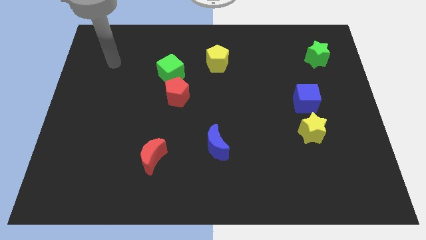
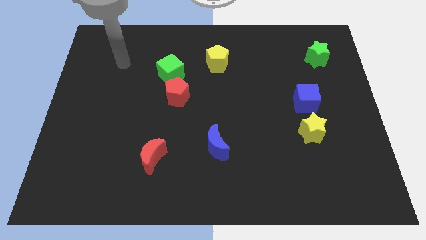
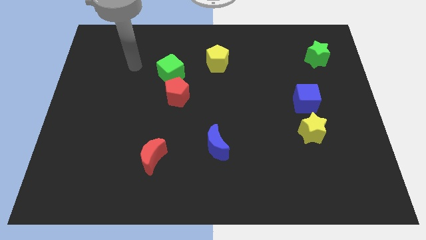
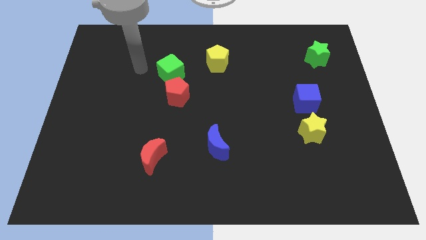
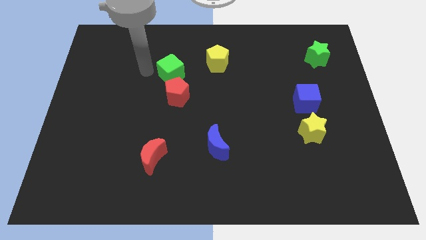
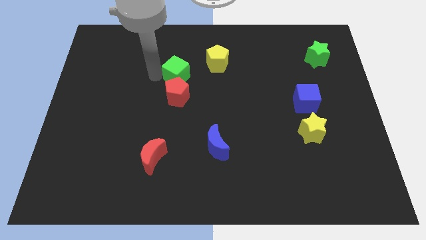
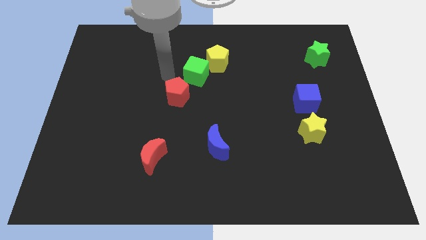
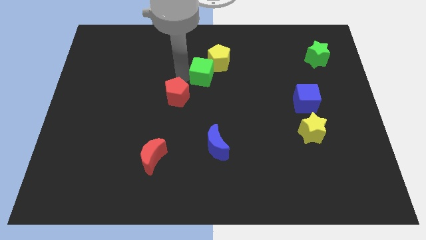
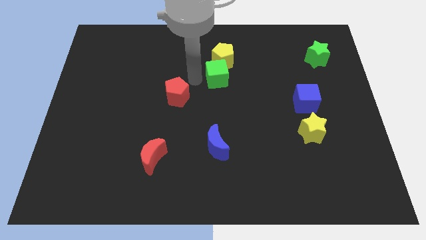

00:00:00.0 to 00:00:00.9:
move the red pentagon away from the green cube

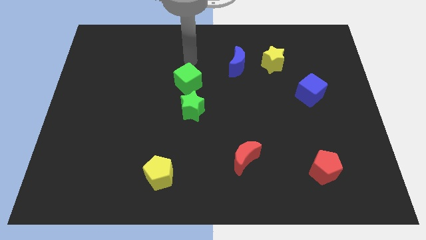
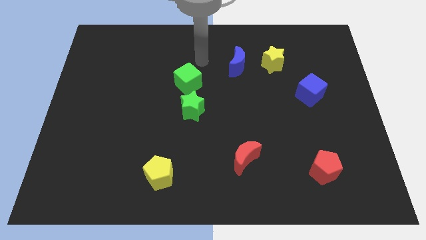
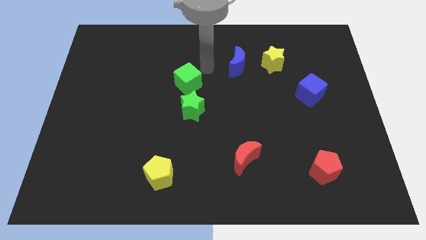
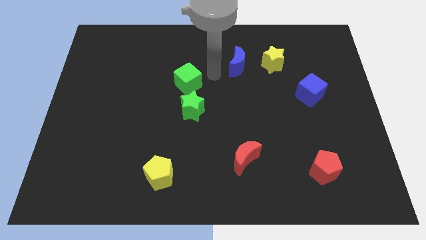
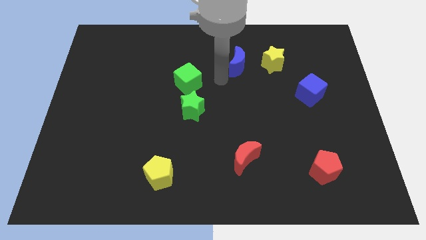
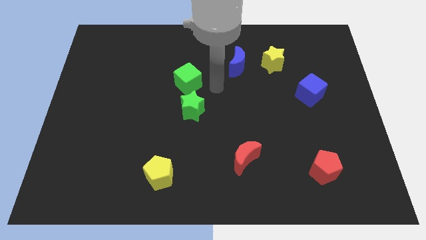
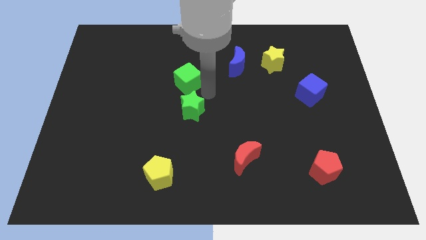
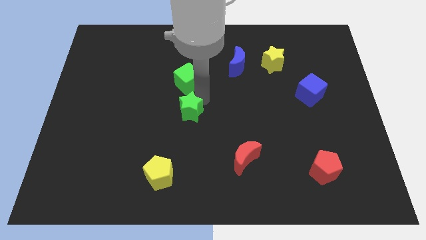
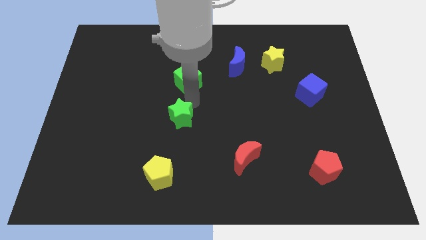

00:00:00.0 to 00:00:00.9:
separate the green cube from the green star

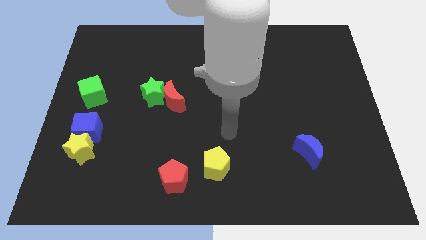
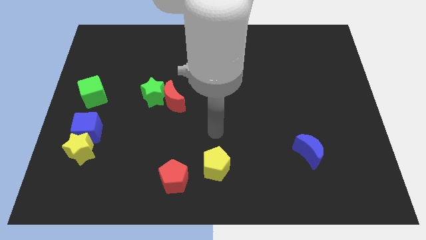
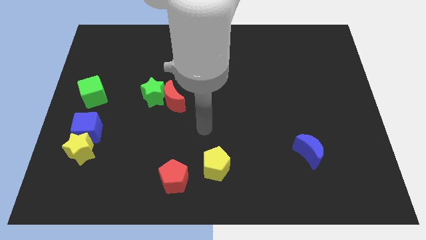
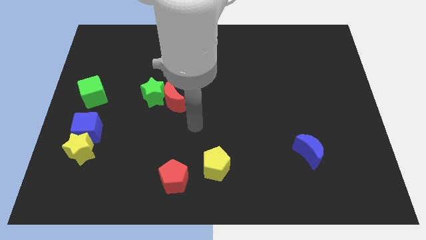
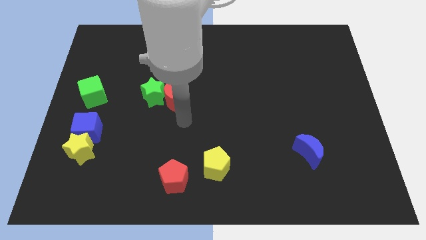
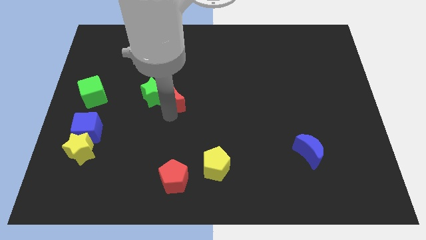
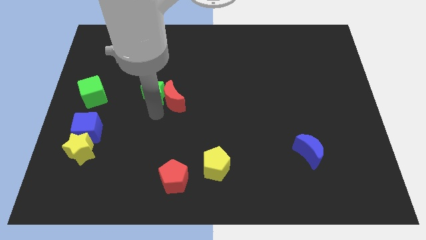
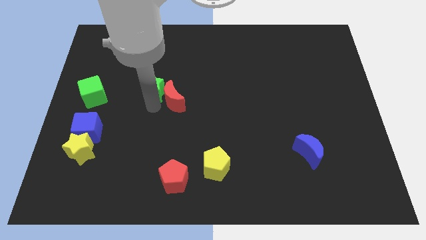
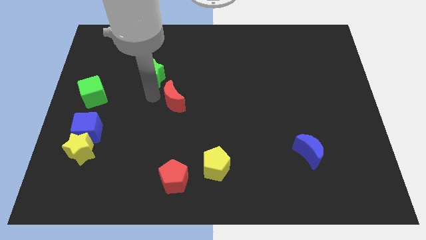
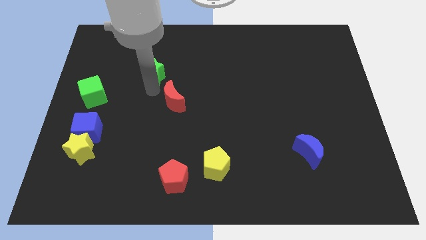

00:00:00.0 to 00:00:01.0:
separate the red moon from the green star

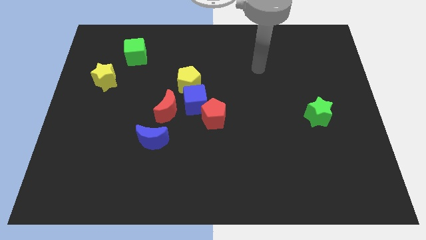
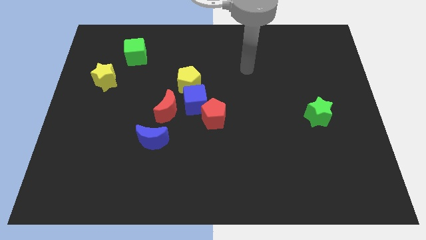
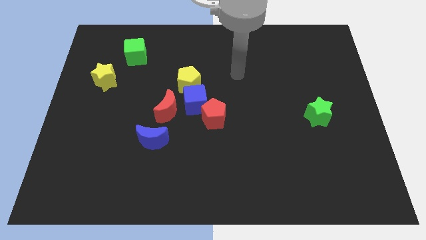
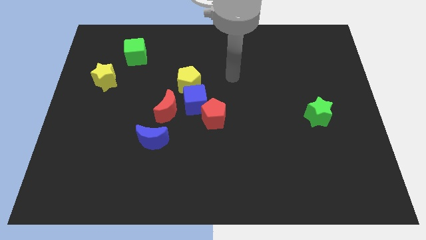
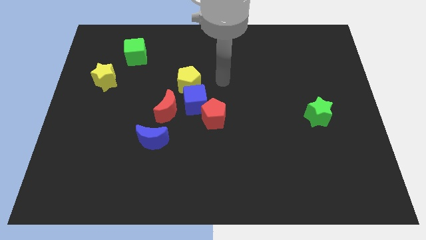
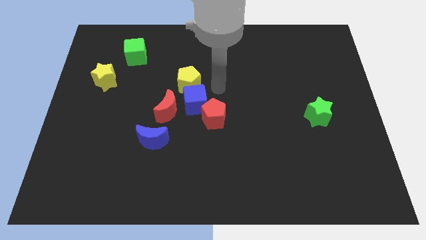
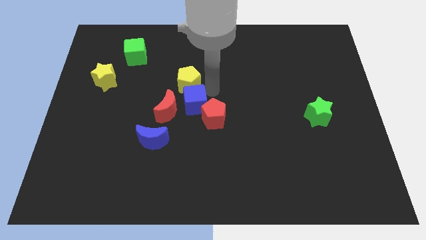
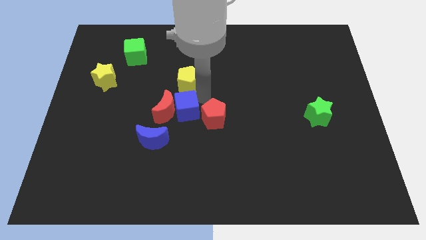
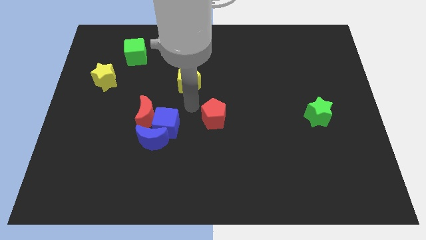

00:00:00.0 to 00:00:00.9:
pull the red pentagon apart from the blue cube

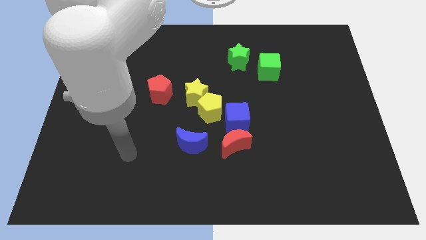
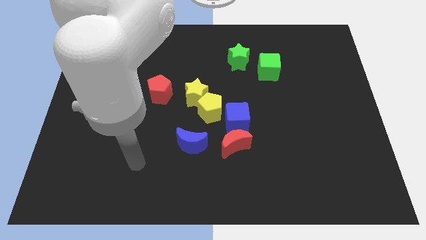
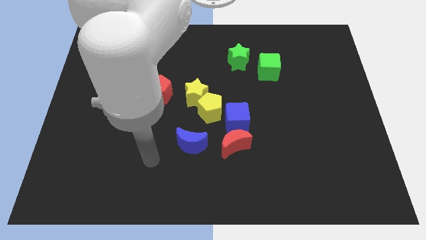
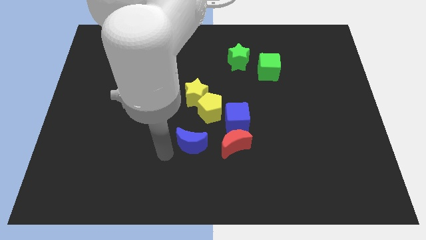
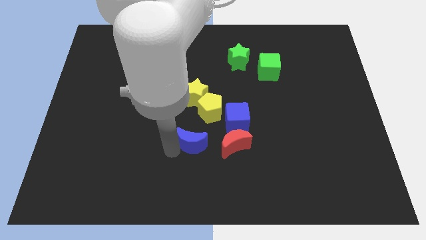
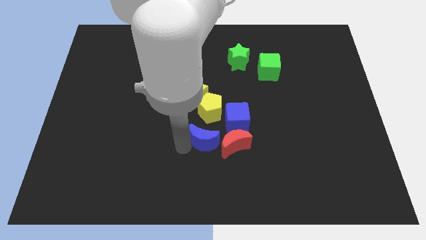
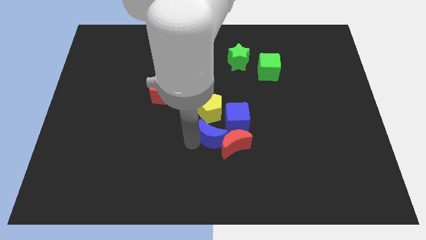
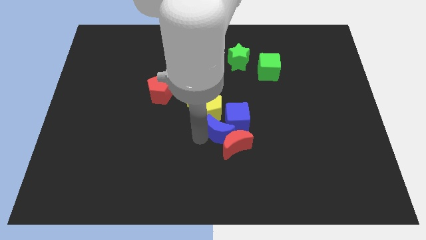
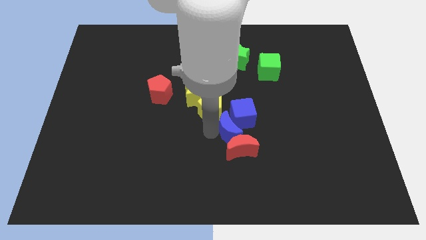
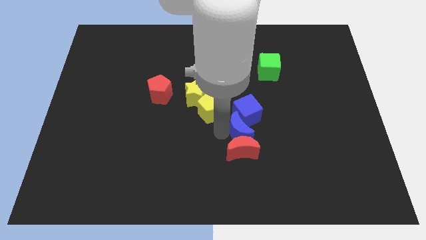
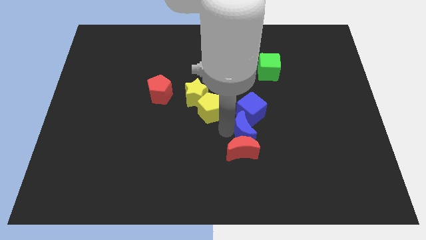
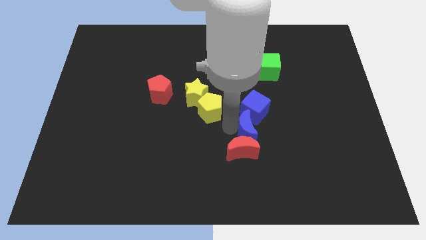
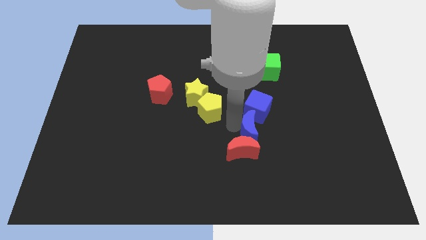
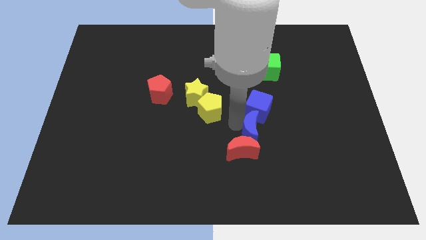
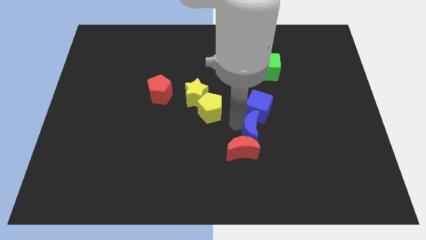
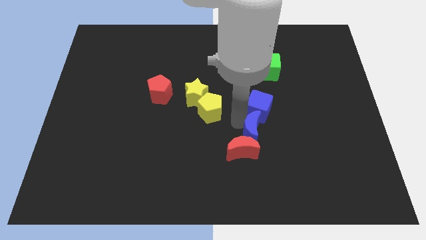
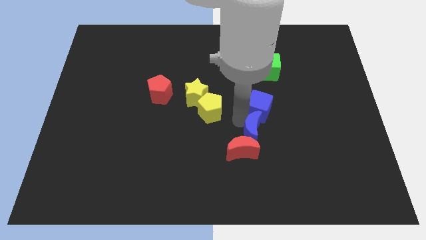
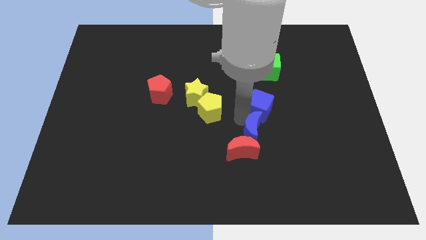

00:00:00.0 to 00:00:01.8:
move the blue cube away from the yellow pentagon and red moon

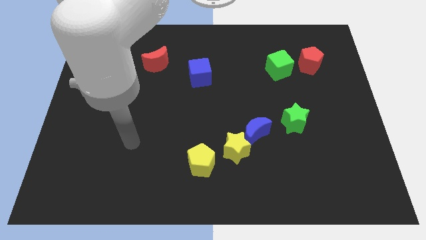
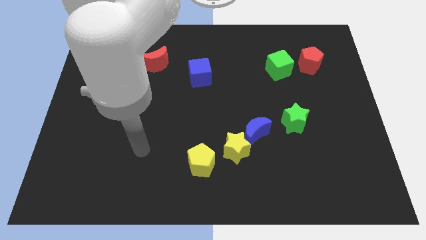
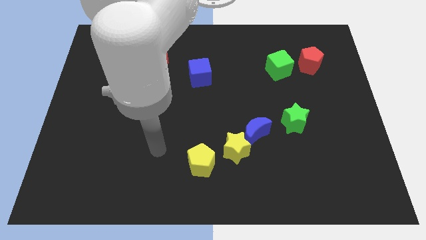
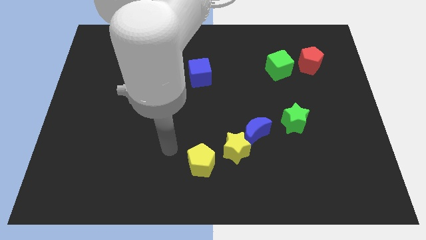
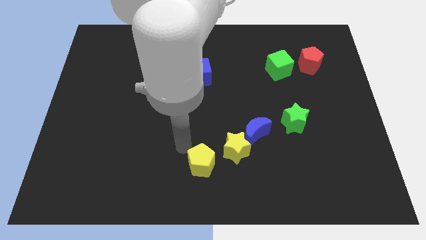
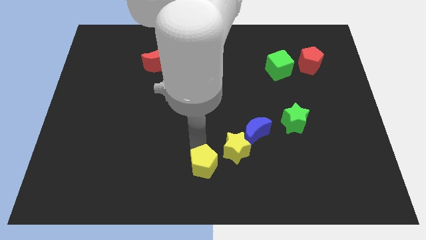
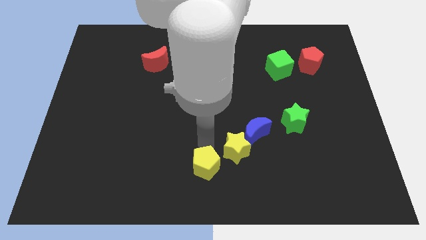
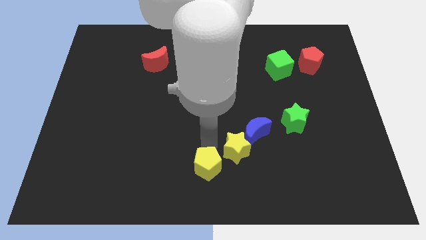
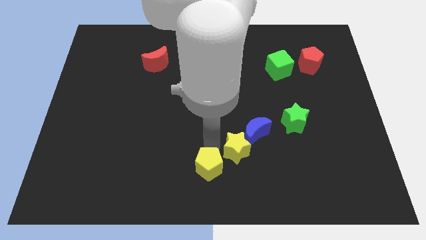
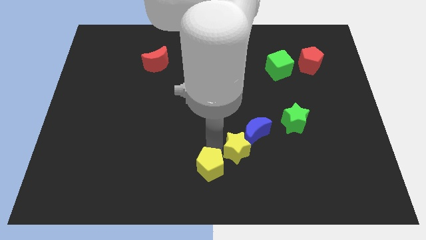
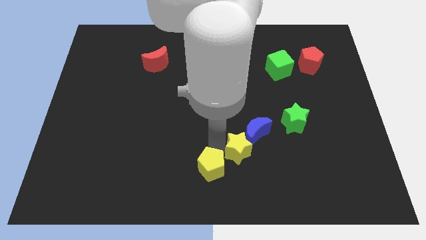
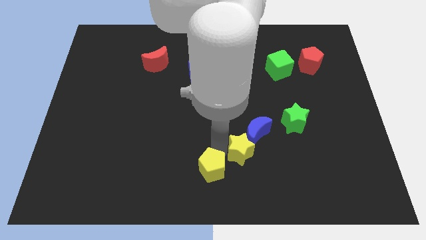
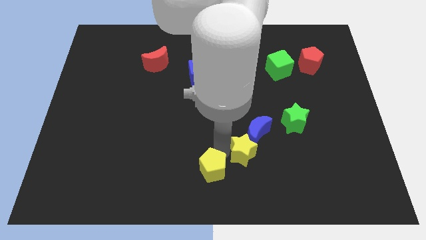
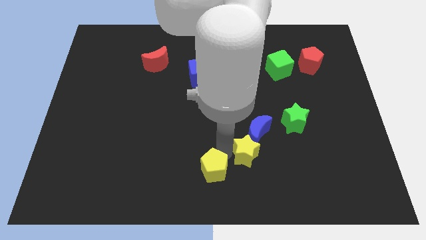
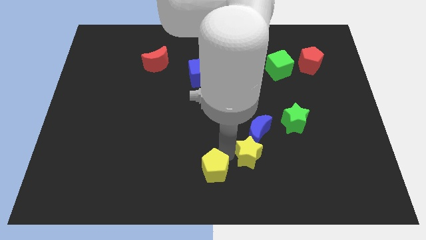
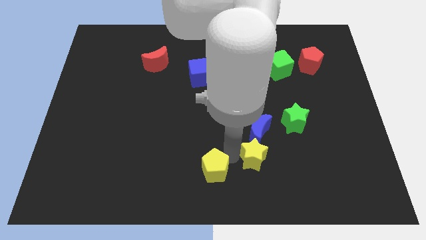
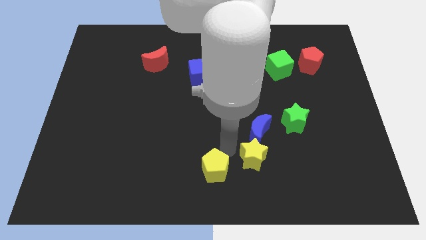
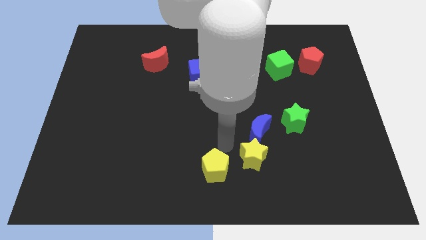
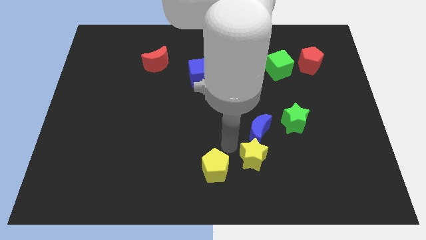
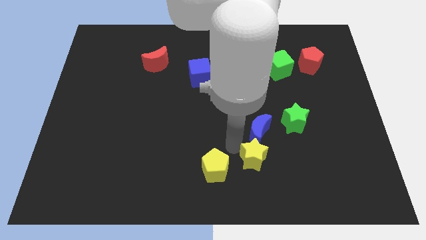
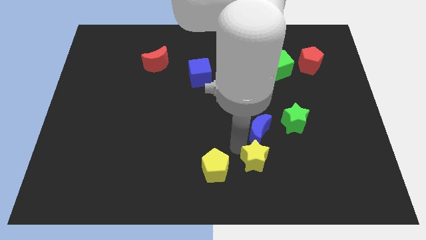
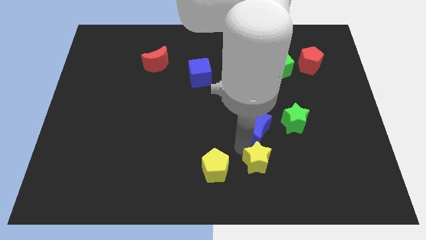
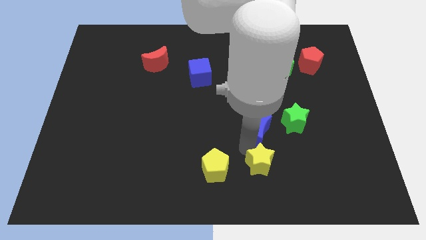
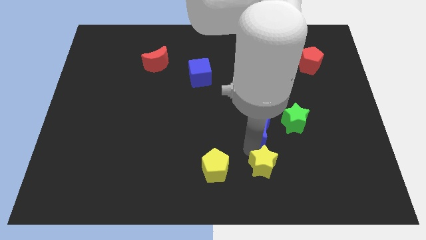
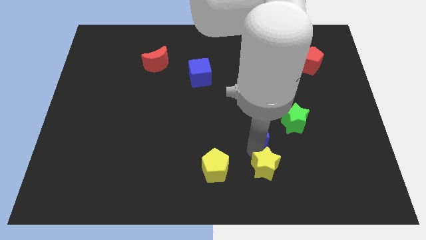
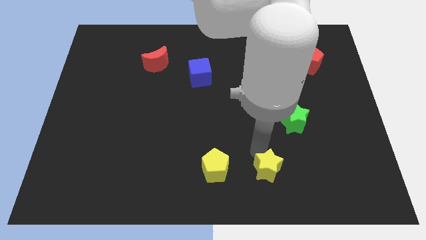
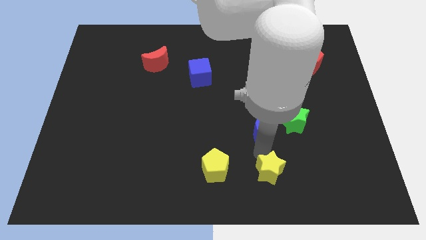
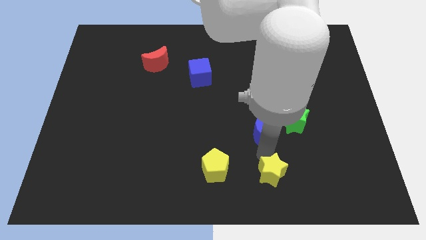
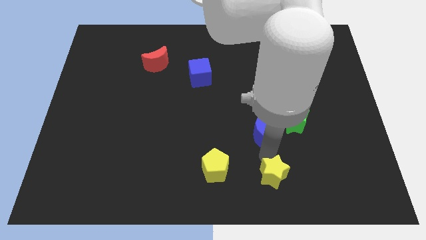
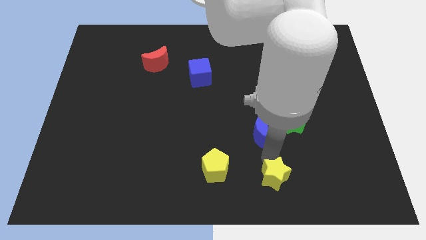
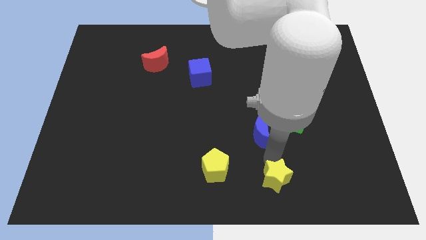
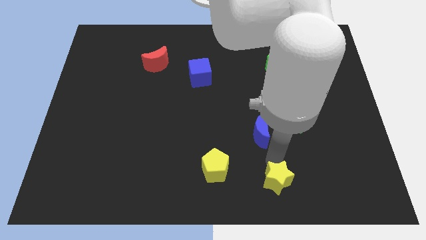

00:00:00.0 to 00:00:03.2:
move the yellow star away from the blue moon and yellow pentagon

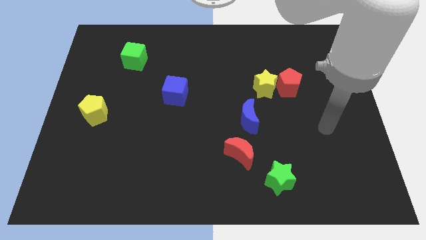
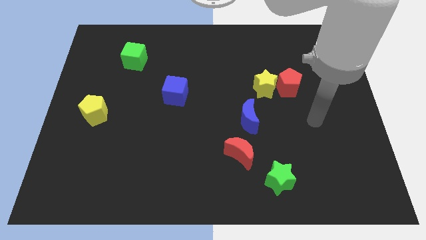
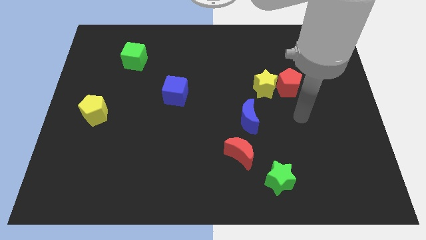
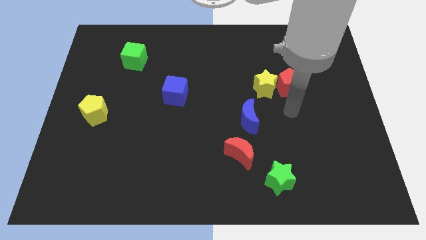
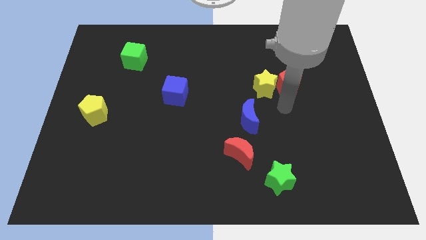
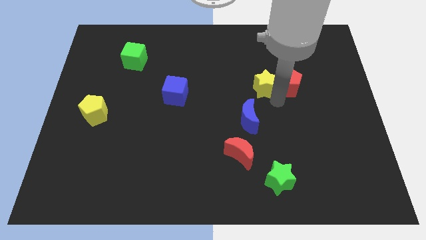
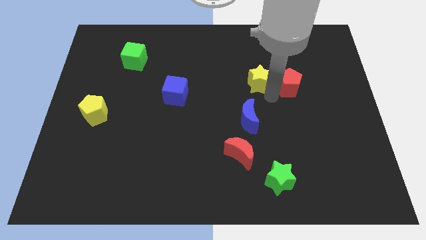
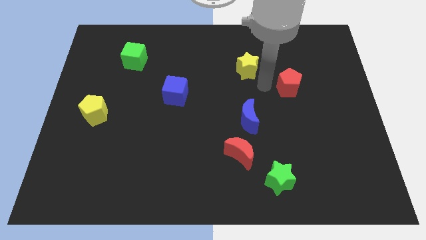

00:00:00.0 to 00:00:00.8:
separate the red pentagon from the yellow star
